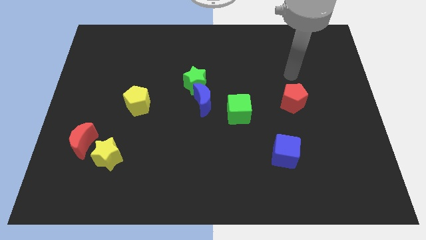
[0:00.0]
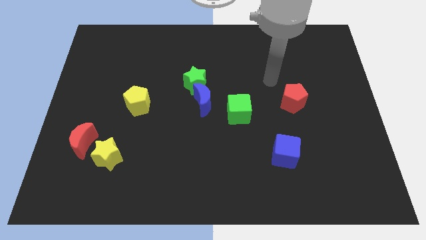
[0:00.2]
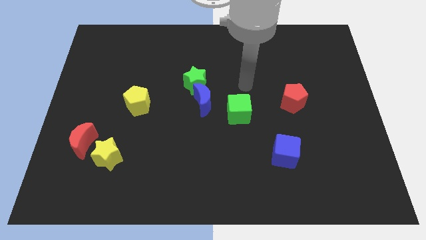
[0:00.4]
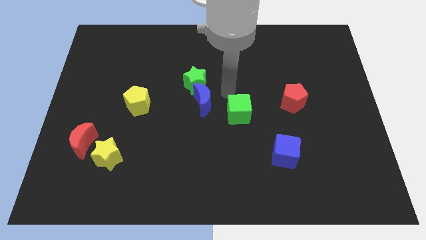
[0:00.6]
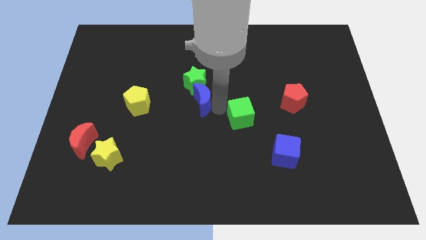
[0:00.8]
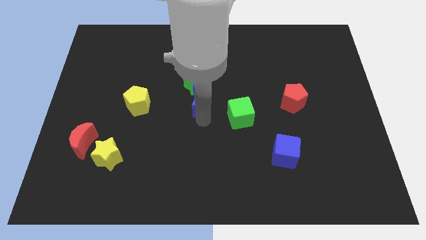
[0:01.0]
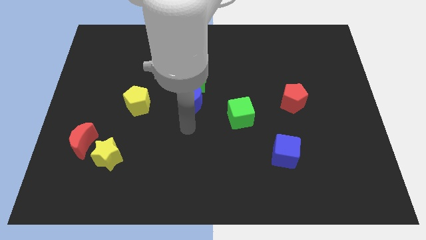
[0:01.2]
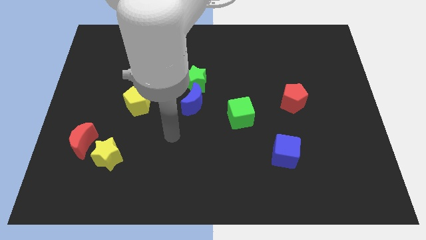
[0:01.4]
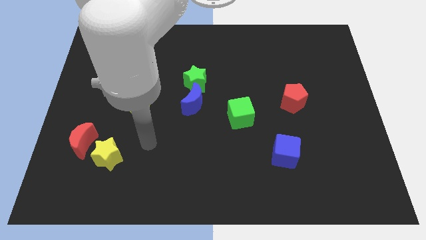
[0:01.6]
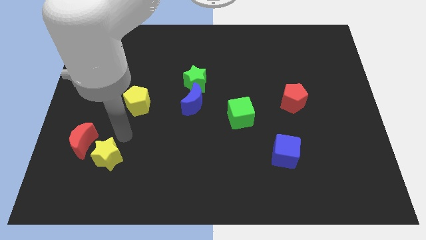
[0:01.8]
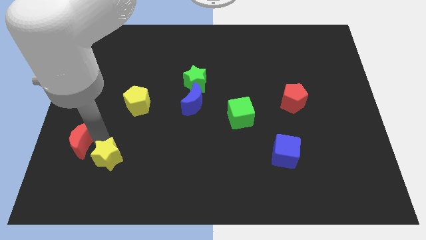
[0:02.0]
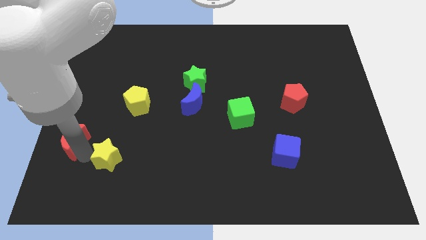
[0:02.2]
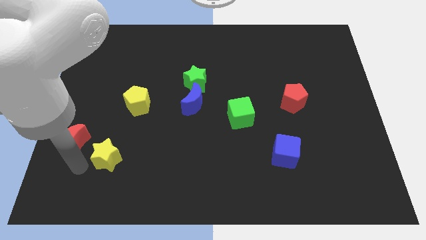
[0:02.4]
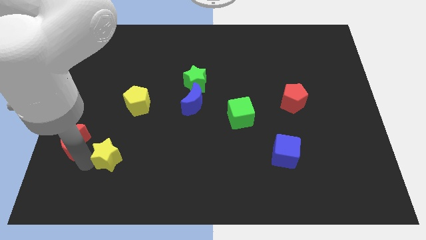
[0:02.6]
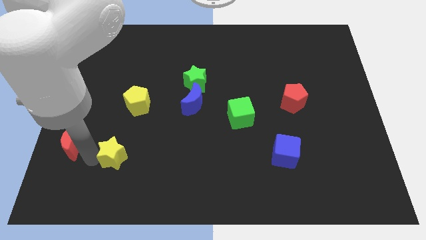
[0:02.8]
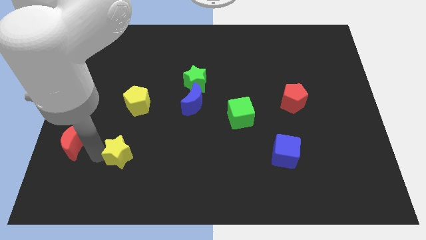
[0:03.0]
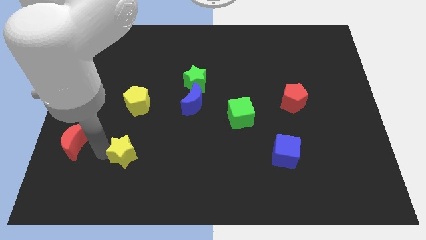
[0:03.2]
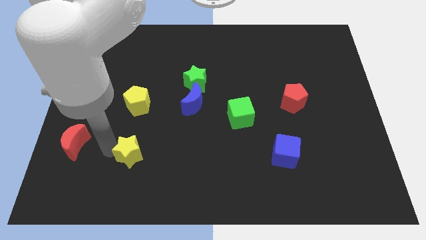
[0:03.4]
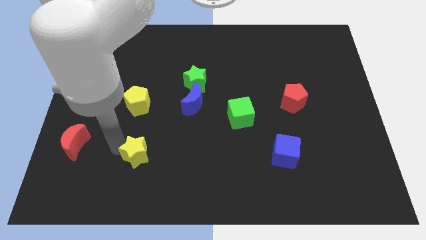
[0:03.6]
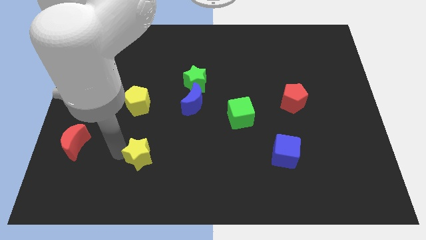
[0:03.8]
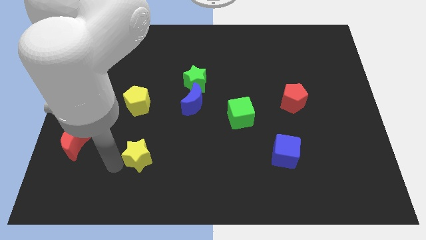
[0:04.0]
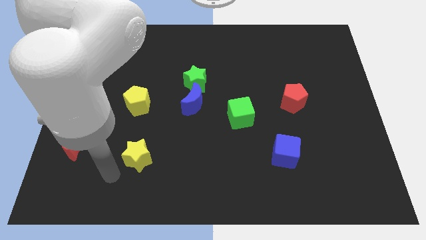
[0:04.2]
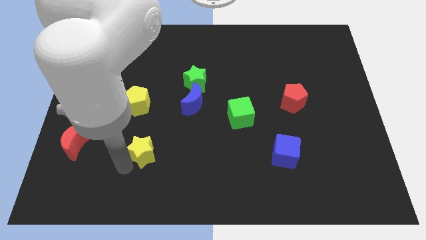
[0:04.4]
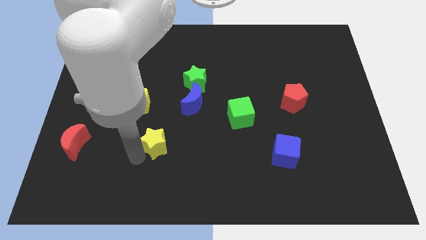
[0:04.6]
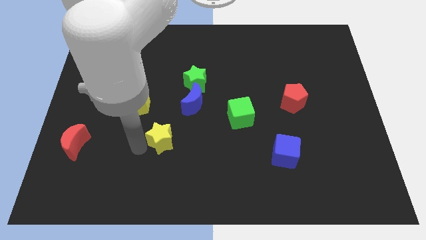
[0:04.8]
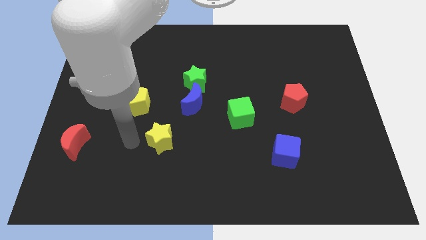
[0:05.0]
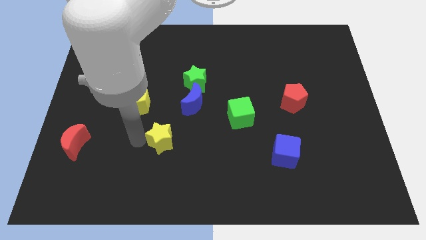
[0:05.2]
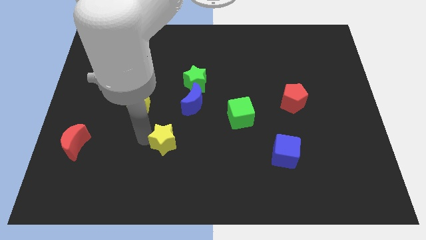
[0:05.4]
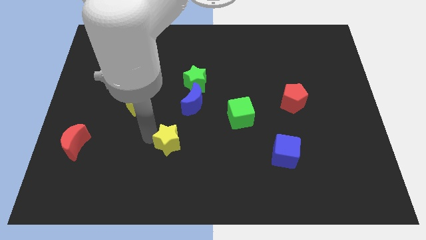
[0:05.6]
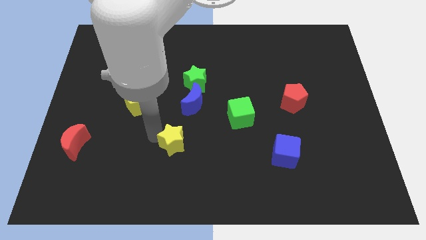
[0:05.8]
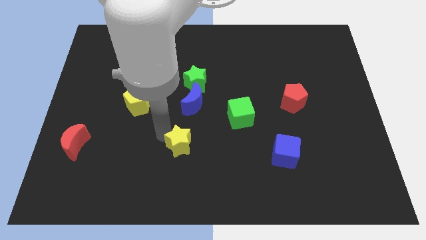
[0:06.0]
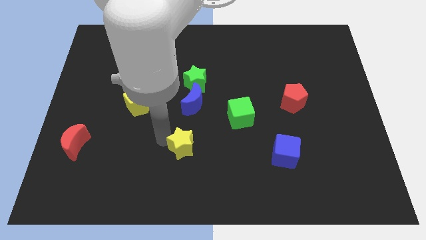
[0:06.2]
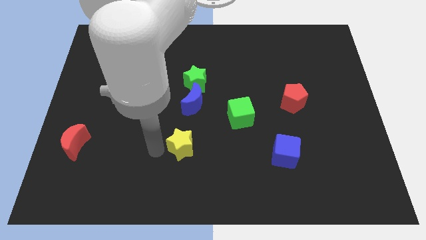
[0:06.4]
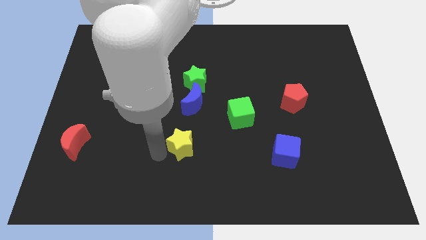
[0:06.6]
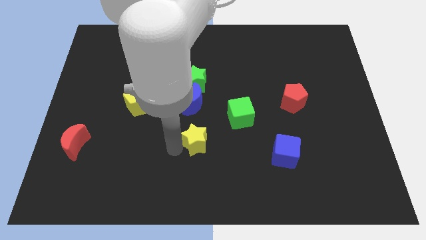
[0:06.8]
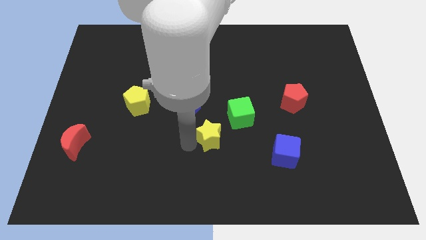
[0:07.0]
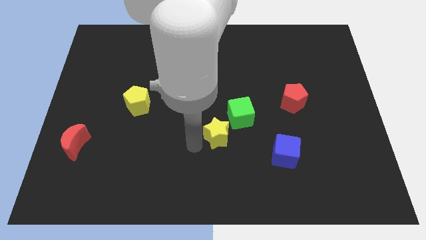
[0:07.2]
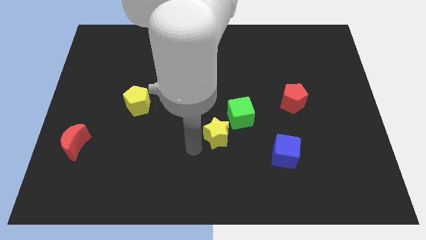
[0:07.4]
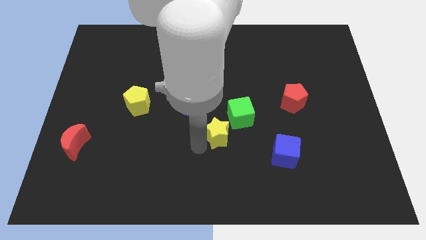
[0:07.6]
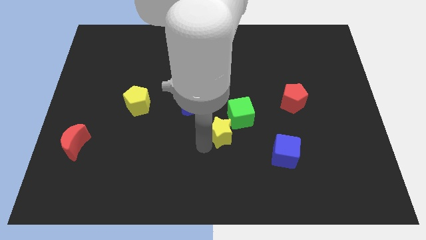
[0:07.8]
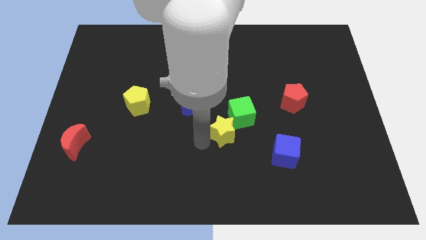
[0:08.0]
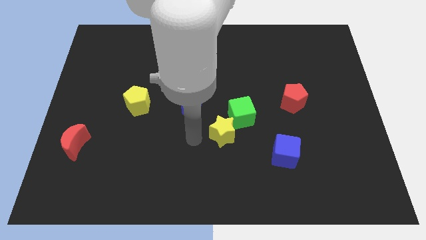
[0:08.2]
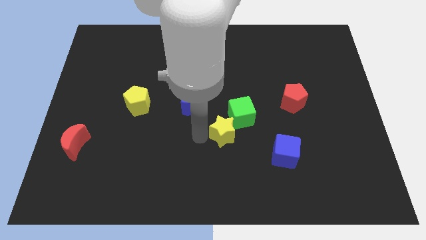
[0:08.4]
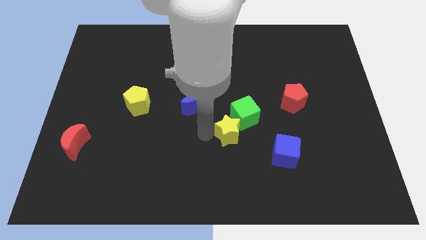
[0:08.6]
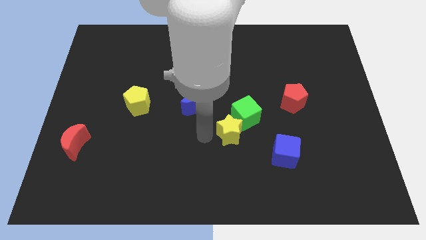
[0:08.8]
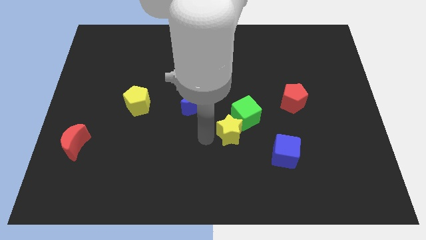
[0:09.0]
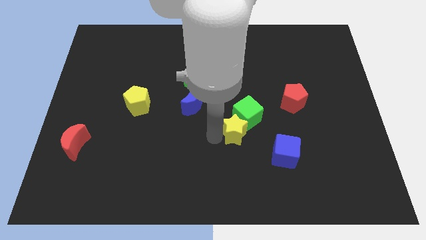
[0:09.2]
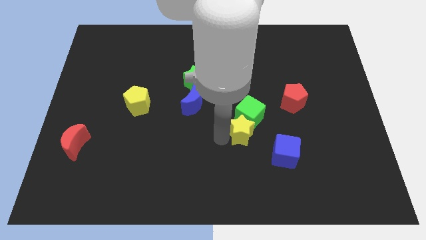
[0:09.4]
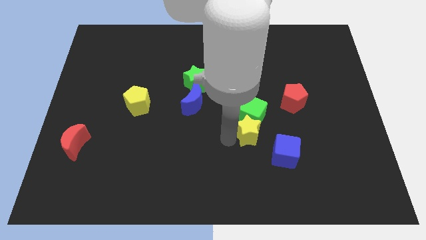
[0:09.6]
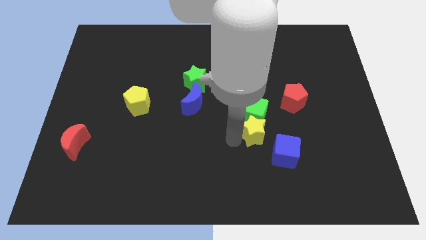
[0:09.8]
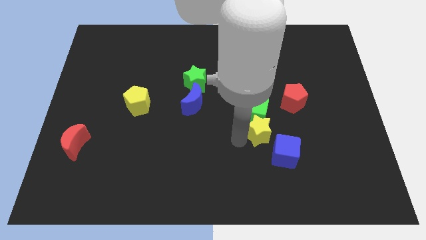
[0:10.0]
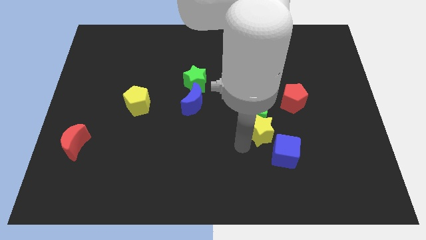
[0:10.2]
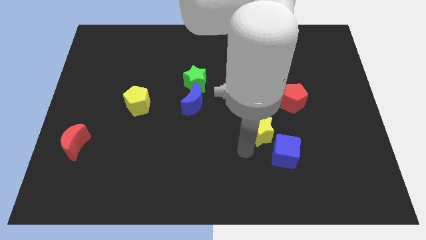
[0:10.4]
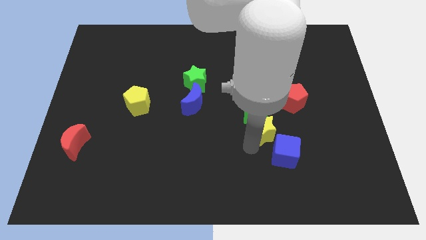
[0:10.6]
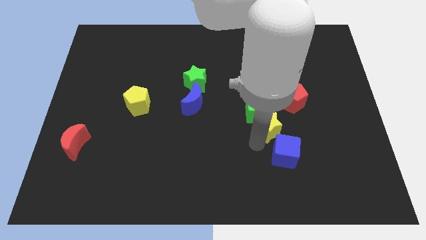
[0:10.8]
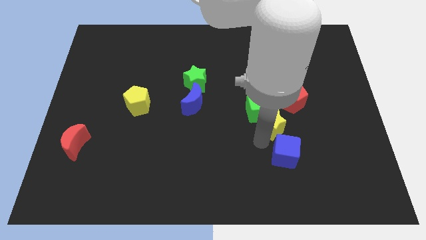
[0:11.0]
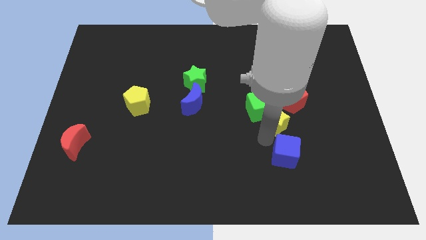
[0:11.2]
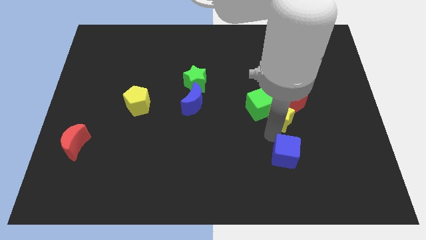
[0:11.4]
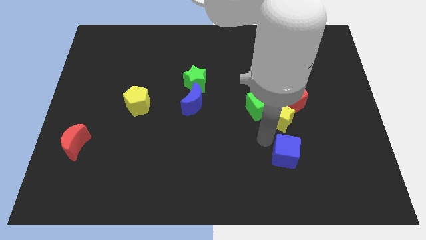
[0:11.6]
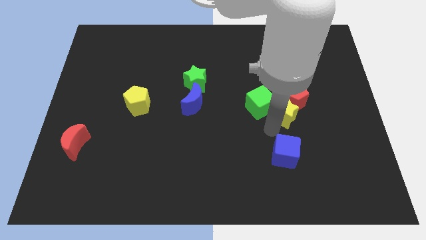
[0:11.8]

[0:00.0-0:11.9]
put the yellow star towards the red pentagon

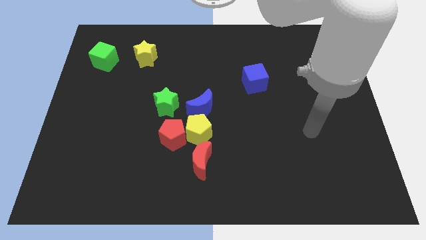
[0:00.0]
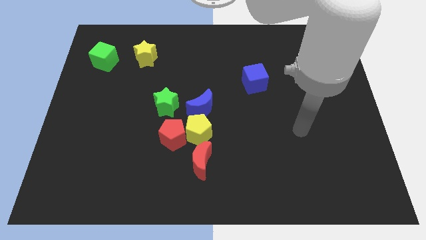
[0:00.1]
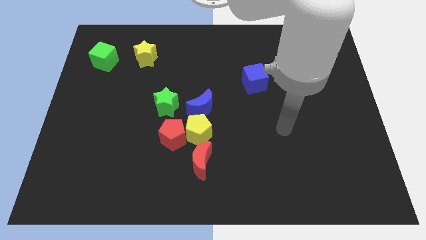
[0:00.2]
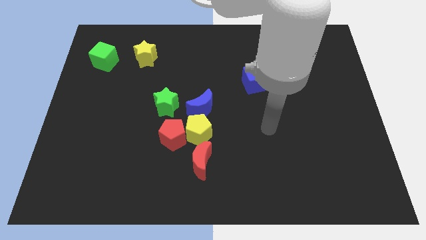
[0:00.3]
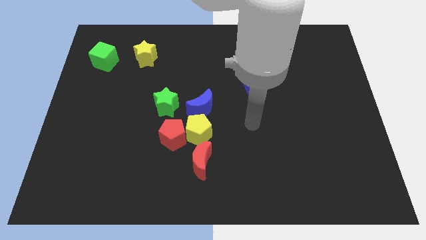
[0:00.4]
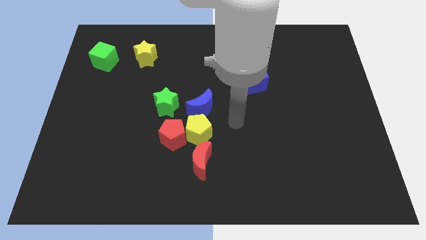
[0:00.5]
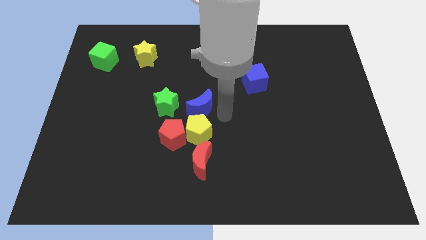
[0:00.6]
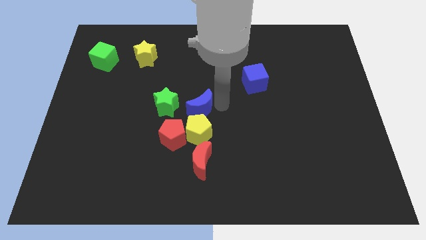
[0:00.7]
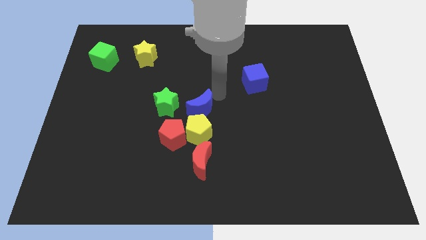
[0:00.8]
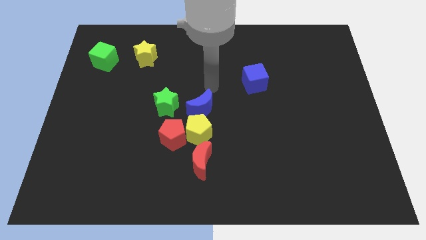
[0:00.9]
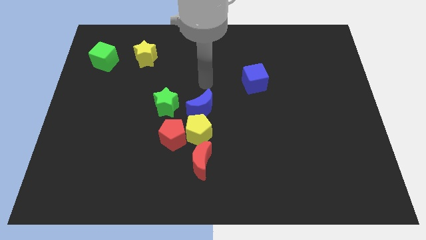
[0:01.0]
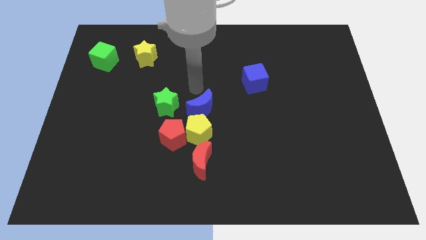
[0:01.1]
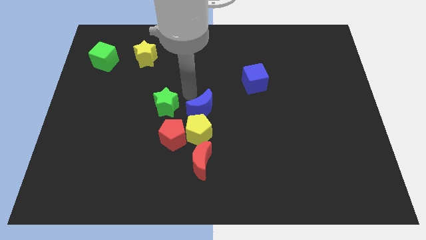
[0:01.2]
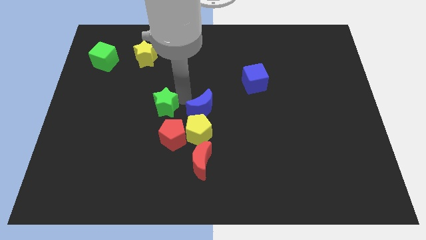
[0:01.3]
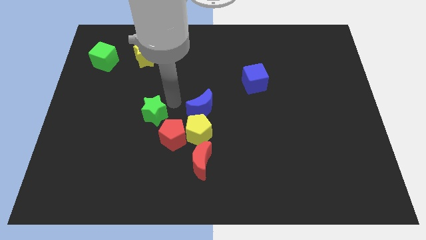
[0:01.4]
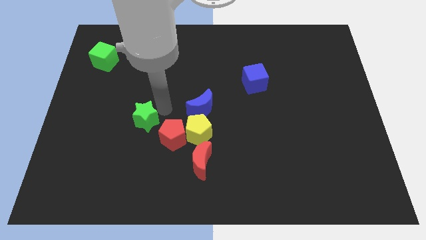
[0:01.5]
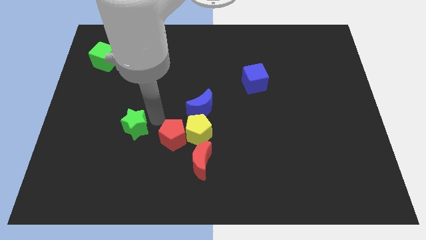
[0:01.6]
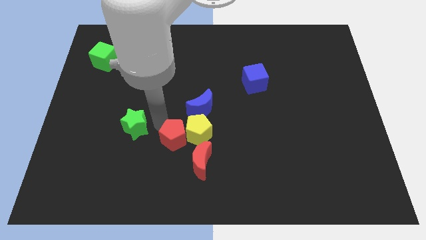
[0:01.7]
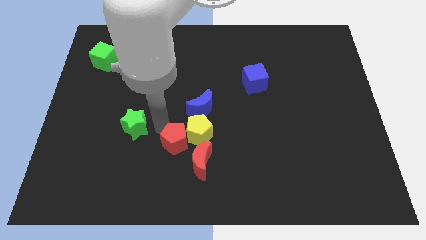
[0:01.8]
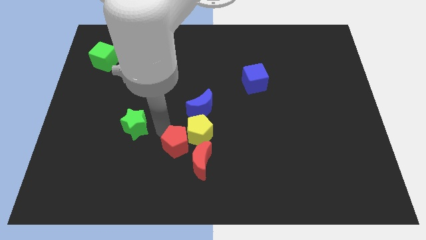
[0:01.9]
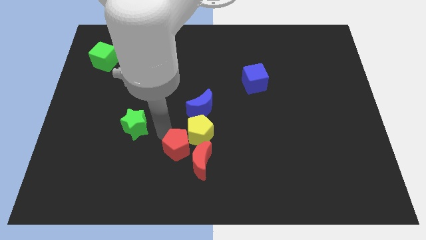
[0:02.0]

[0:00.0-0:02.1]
slide the red pentagon towards the red moon
